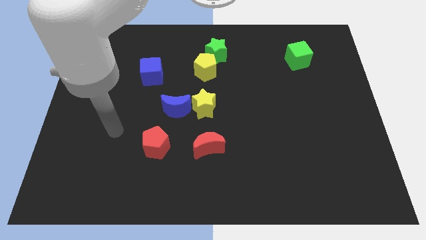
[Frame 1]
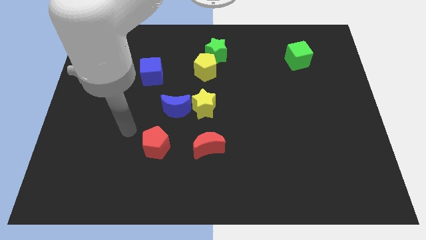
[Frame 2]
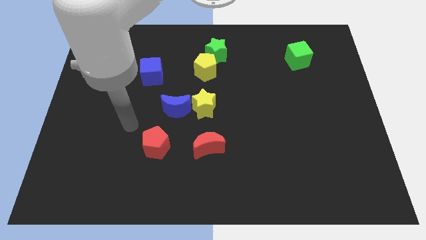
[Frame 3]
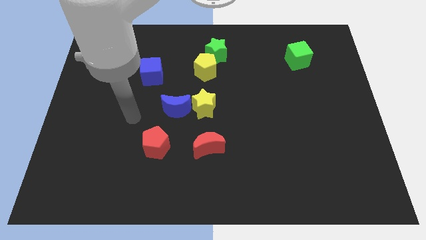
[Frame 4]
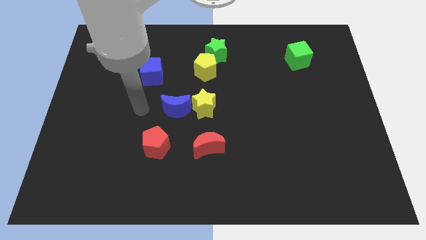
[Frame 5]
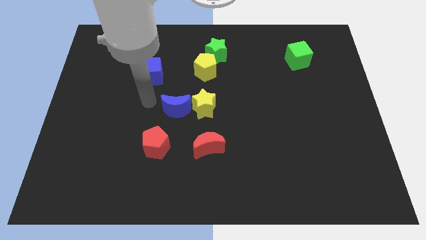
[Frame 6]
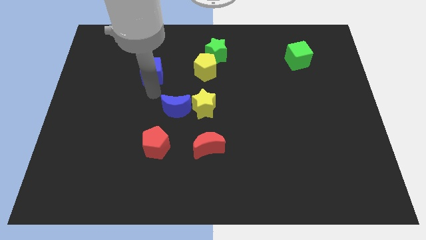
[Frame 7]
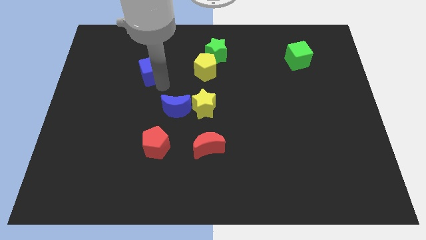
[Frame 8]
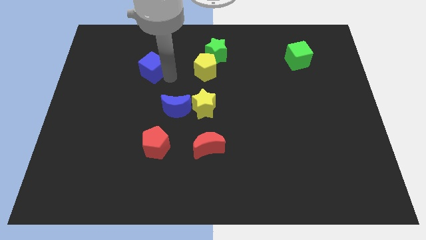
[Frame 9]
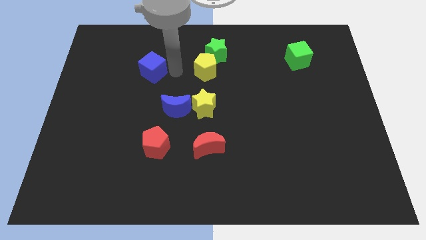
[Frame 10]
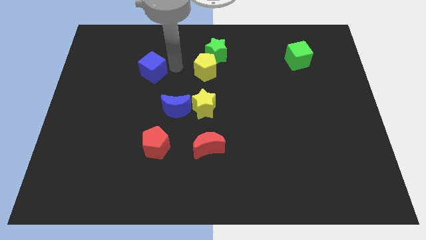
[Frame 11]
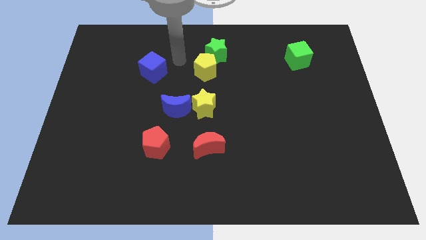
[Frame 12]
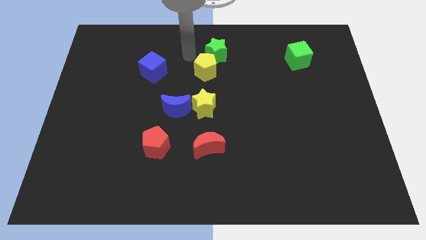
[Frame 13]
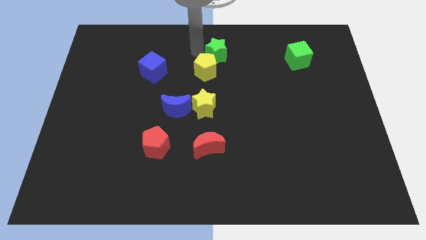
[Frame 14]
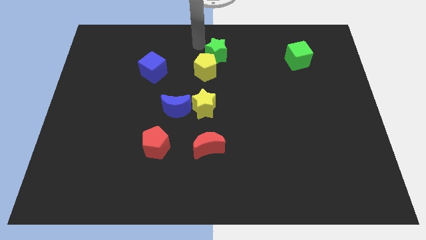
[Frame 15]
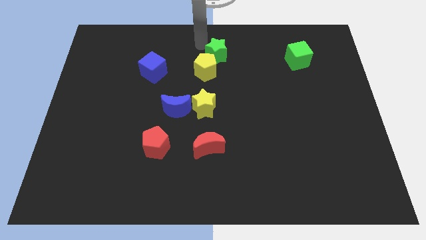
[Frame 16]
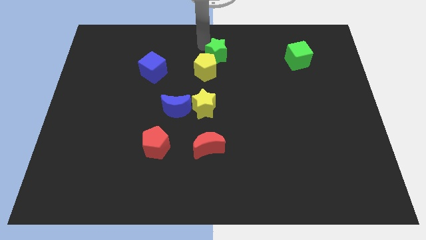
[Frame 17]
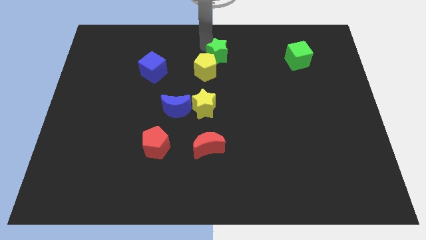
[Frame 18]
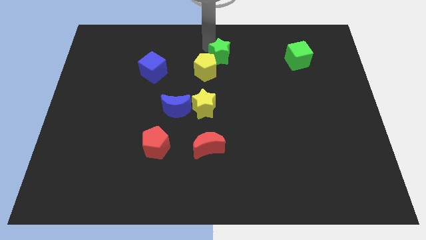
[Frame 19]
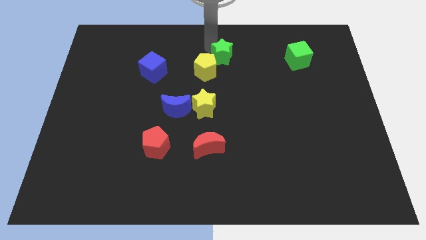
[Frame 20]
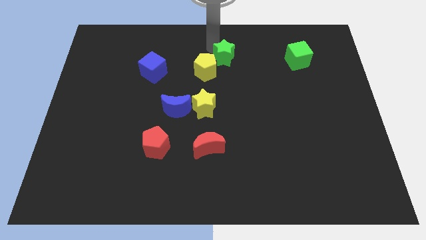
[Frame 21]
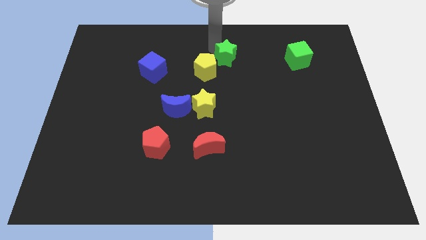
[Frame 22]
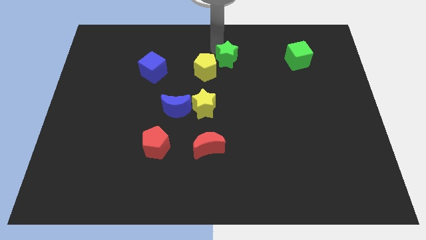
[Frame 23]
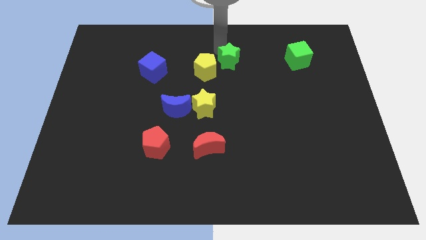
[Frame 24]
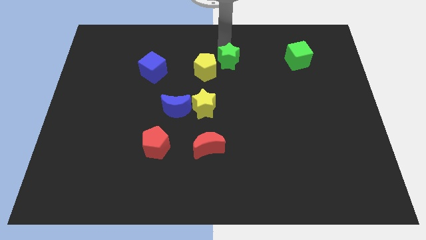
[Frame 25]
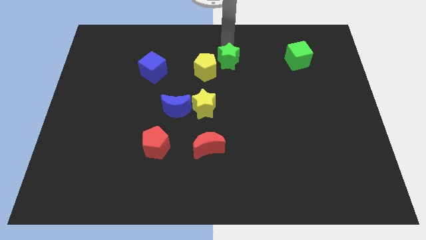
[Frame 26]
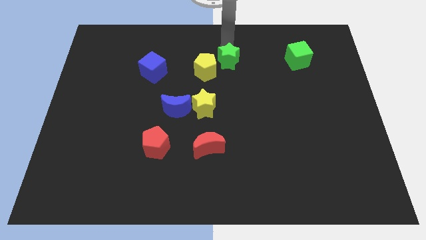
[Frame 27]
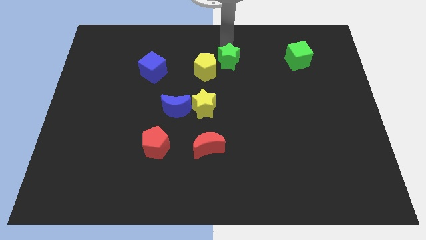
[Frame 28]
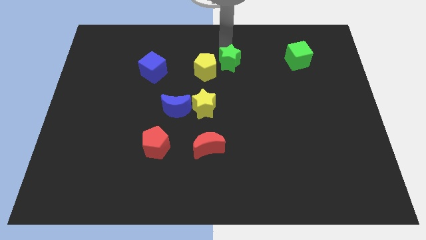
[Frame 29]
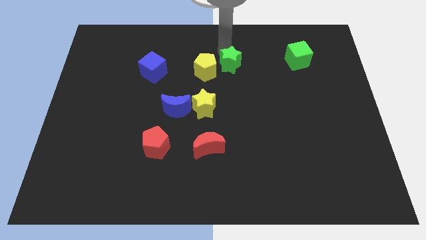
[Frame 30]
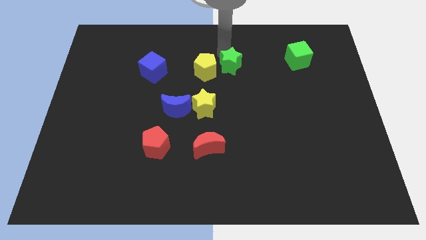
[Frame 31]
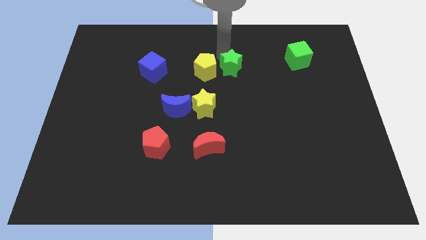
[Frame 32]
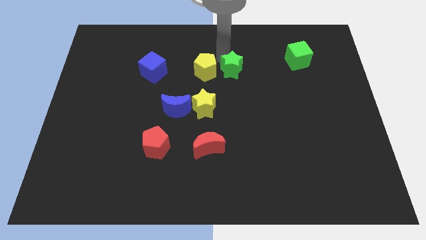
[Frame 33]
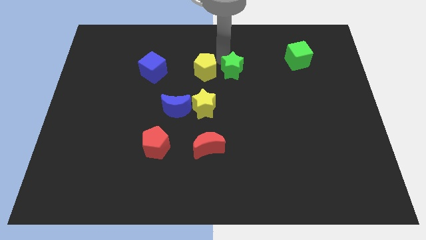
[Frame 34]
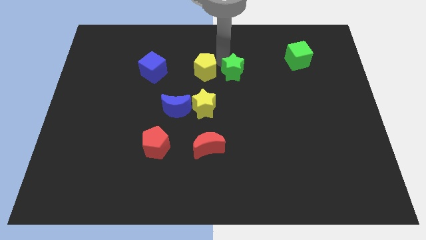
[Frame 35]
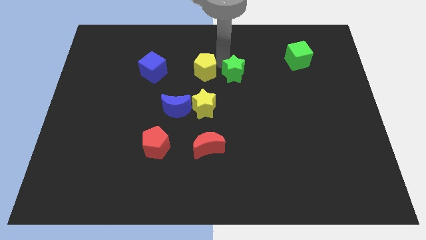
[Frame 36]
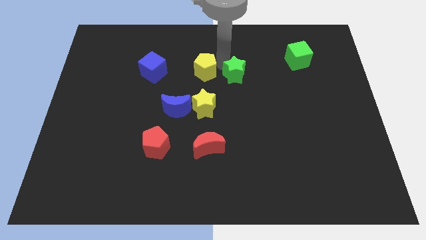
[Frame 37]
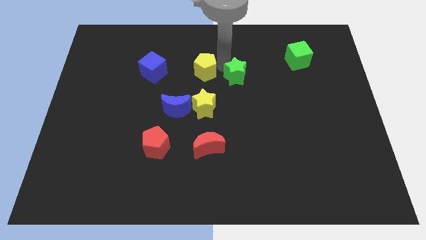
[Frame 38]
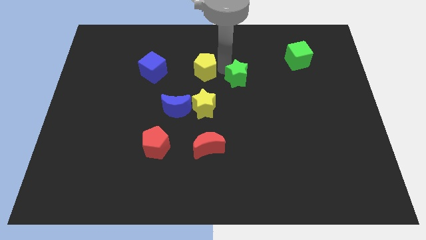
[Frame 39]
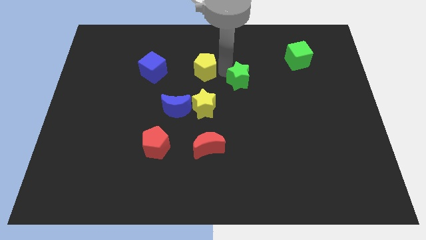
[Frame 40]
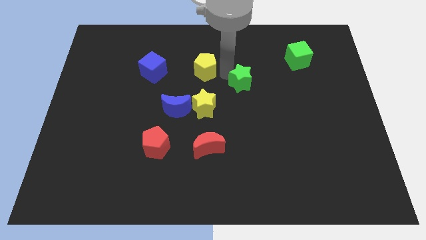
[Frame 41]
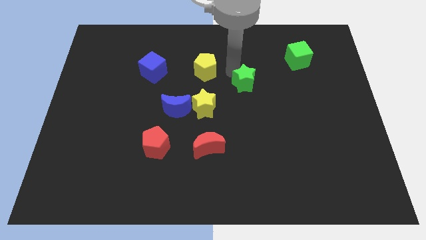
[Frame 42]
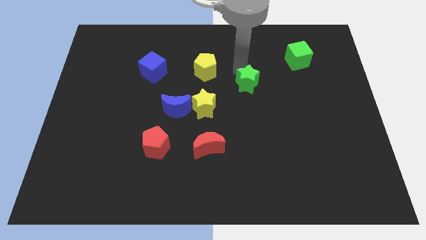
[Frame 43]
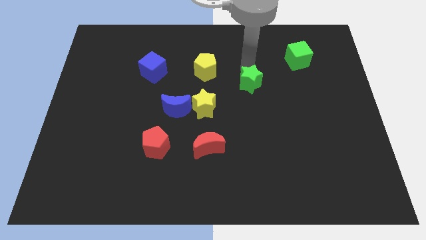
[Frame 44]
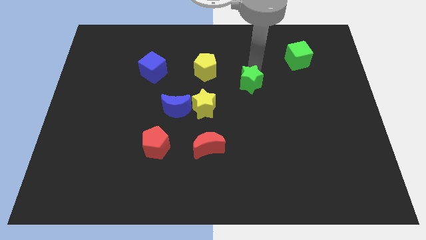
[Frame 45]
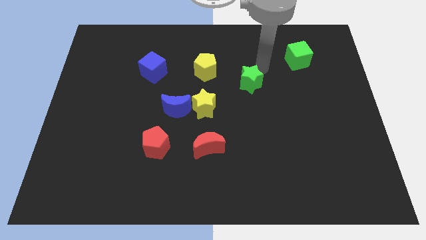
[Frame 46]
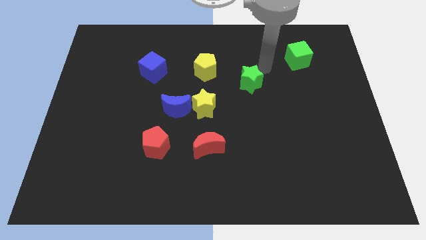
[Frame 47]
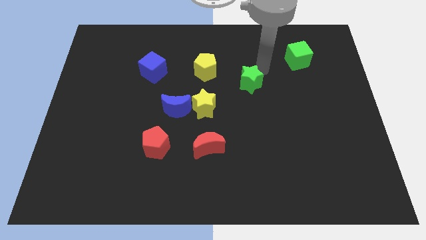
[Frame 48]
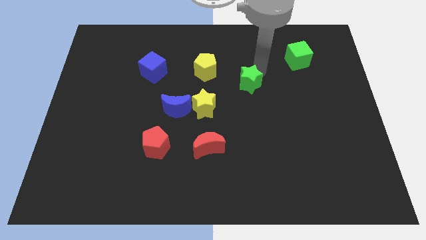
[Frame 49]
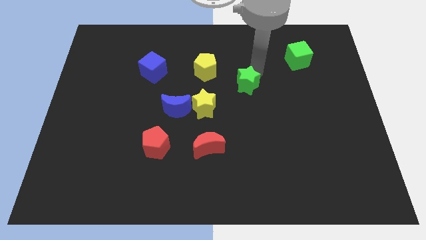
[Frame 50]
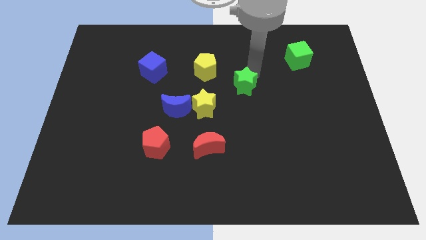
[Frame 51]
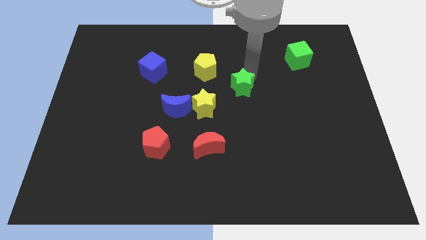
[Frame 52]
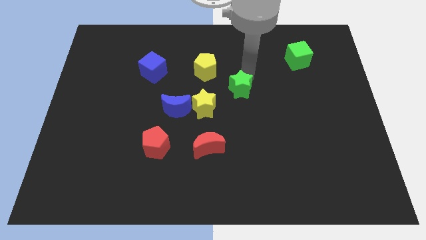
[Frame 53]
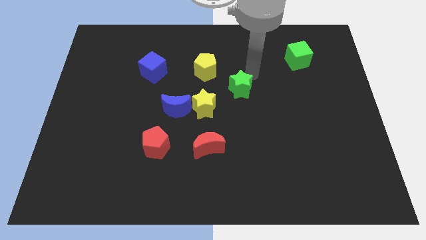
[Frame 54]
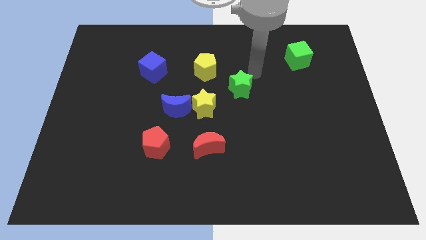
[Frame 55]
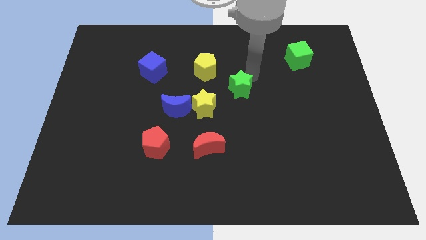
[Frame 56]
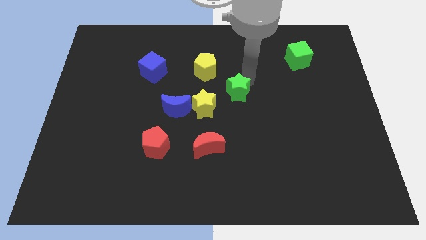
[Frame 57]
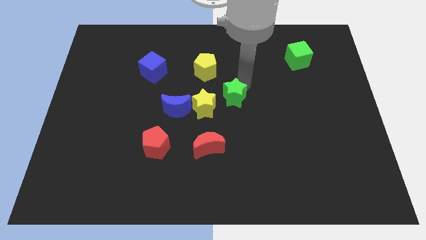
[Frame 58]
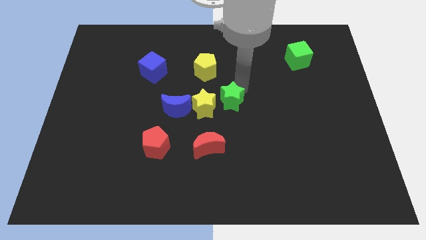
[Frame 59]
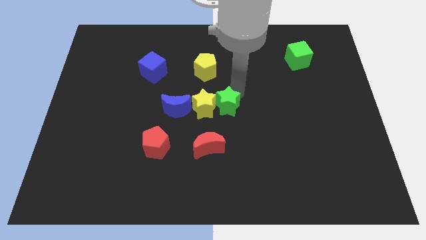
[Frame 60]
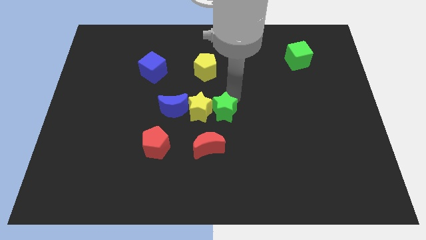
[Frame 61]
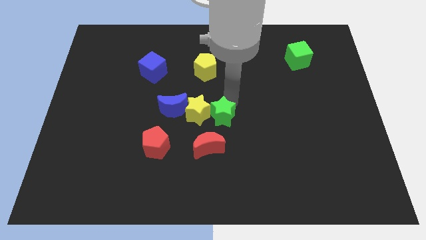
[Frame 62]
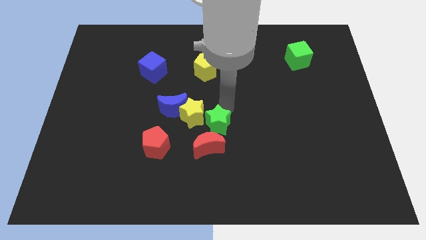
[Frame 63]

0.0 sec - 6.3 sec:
push the green star to the red moon
